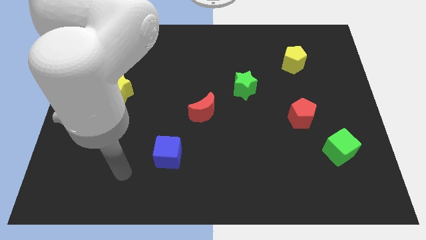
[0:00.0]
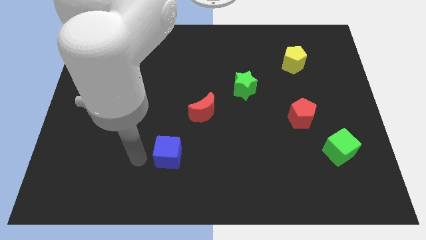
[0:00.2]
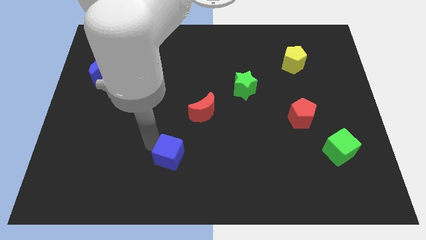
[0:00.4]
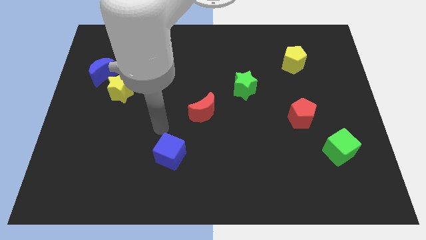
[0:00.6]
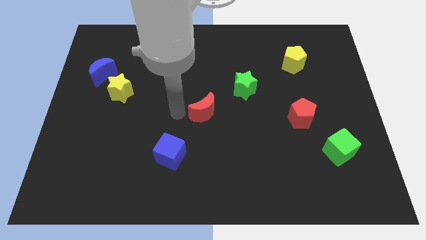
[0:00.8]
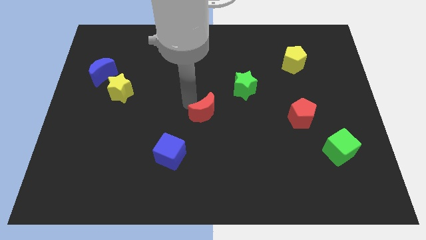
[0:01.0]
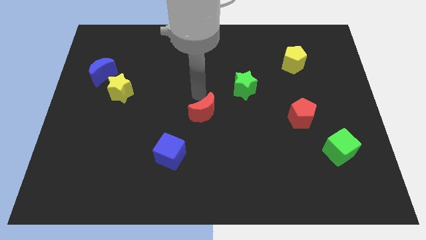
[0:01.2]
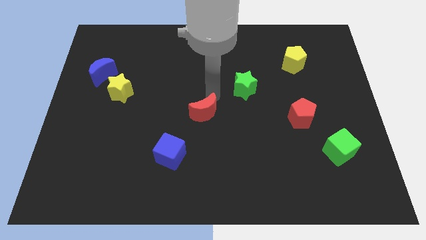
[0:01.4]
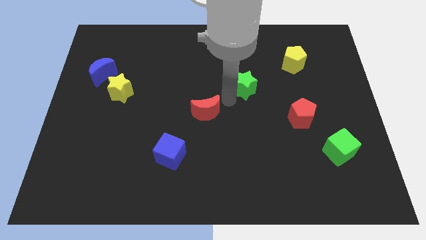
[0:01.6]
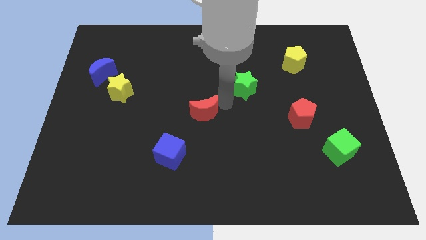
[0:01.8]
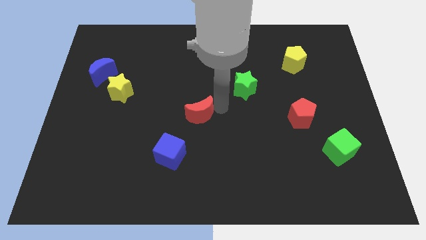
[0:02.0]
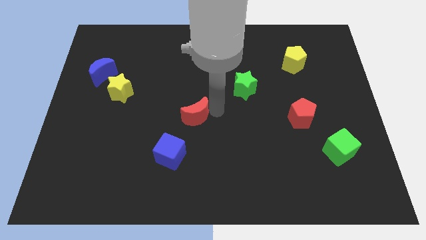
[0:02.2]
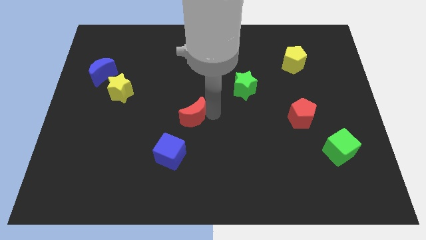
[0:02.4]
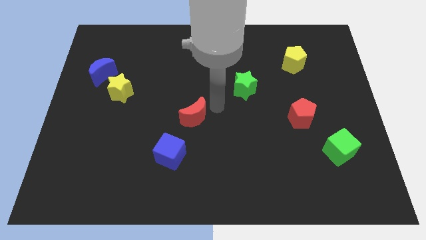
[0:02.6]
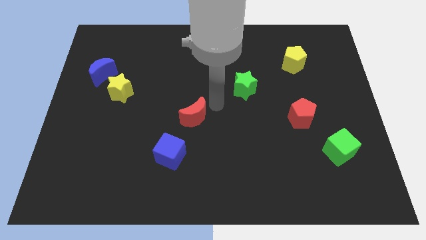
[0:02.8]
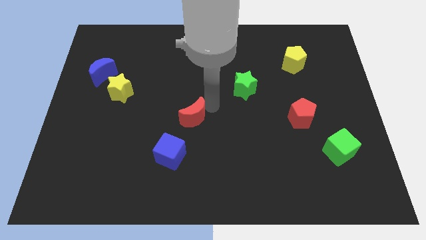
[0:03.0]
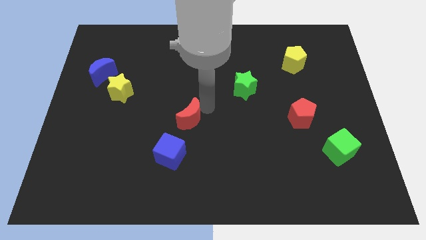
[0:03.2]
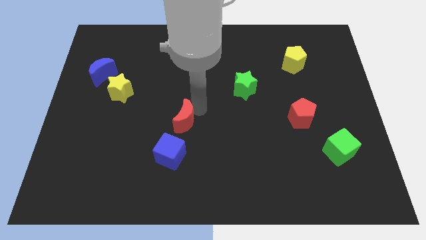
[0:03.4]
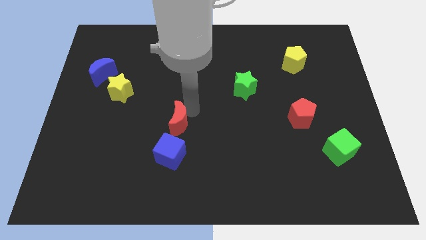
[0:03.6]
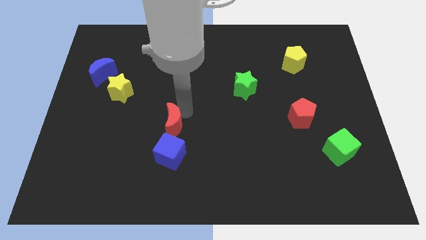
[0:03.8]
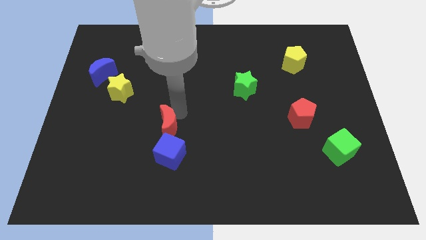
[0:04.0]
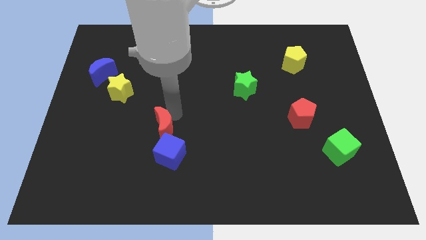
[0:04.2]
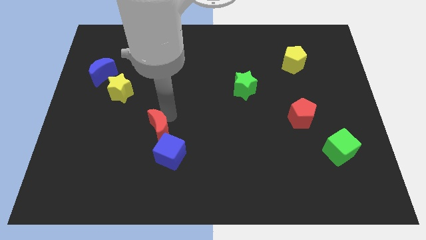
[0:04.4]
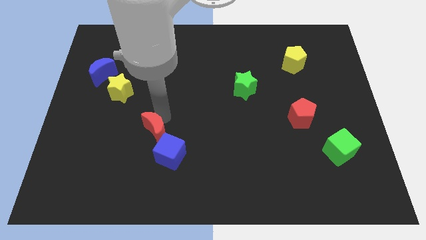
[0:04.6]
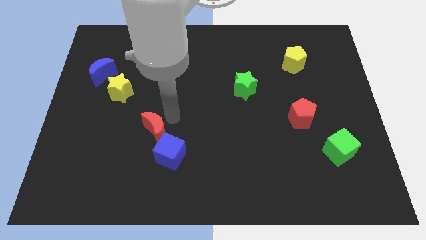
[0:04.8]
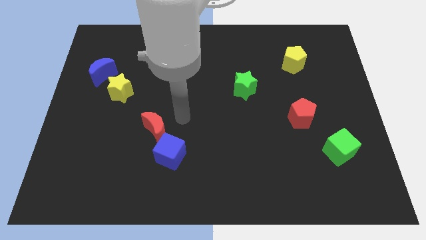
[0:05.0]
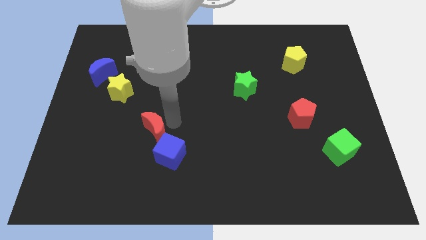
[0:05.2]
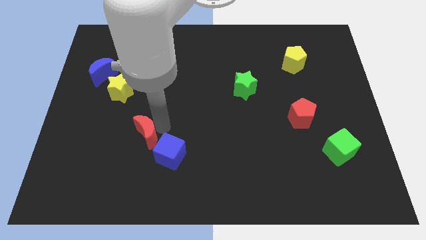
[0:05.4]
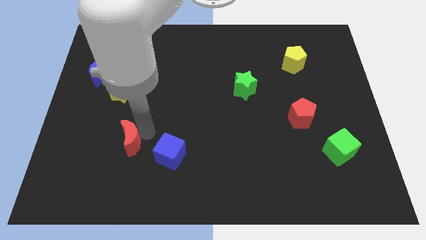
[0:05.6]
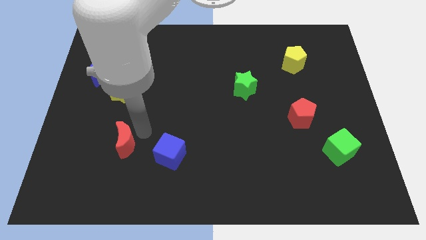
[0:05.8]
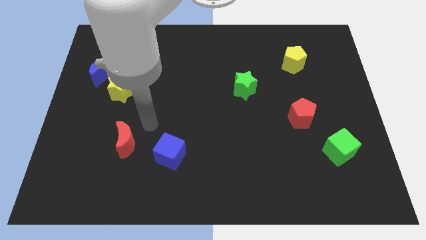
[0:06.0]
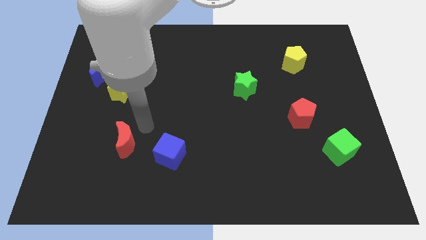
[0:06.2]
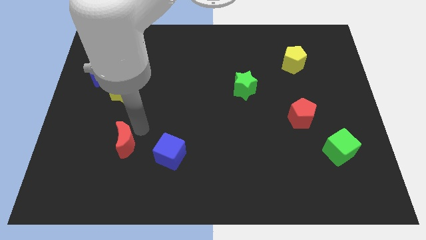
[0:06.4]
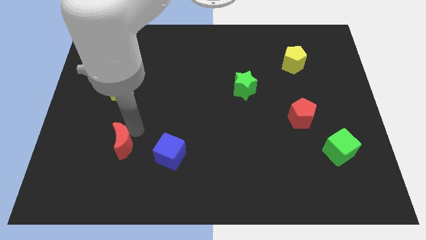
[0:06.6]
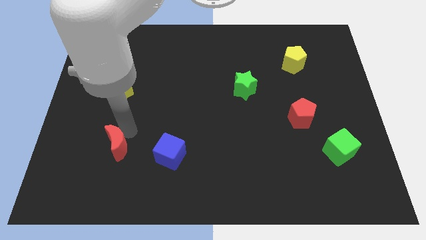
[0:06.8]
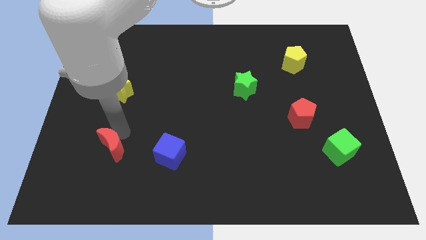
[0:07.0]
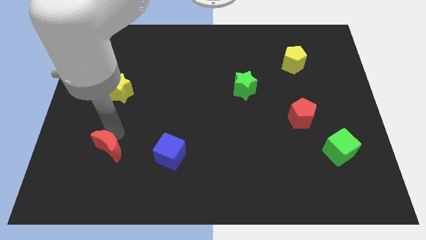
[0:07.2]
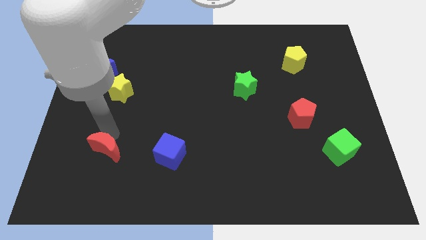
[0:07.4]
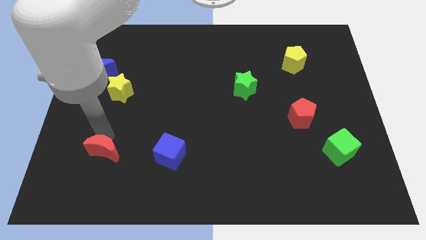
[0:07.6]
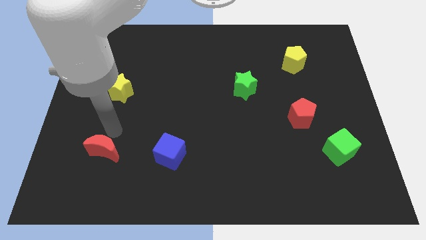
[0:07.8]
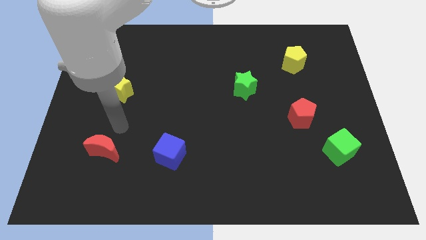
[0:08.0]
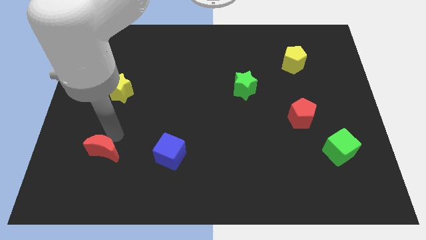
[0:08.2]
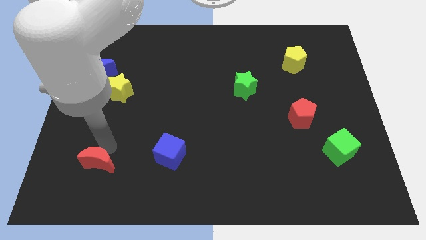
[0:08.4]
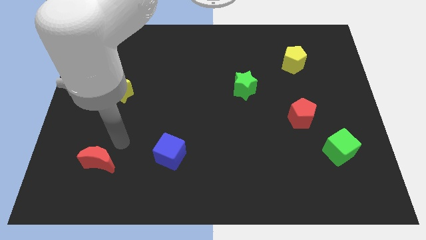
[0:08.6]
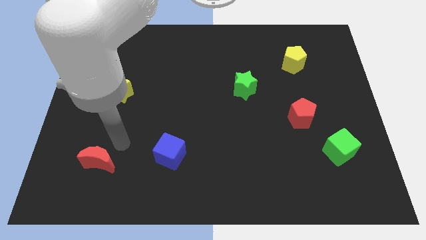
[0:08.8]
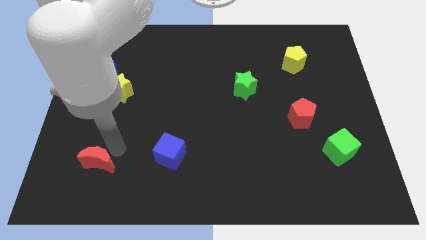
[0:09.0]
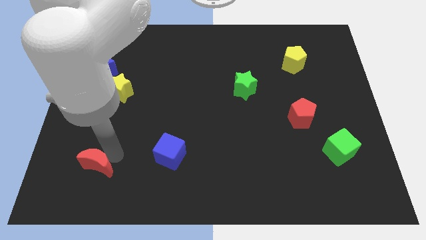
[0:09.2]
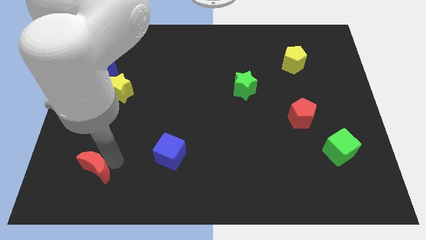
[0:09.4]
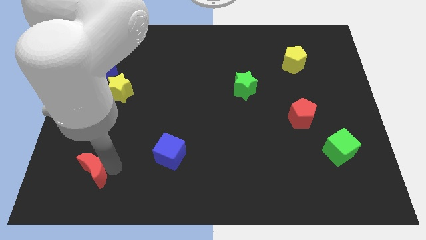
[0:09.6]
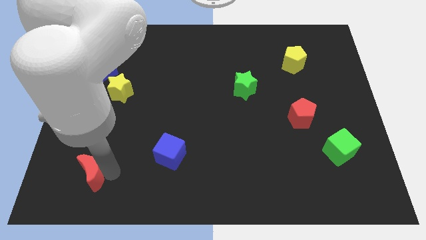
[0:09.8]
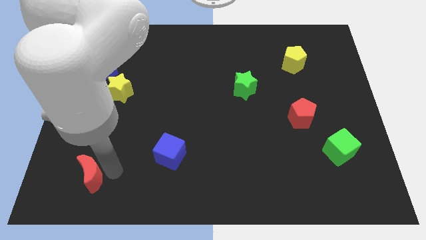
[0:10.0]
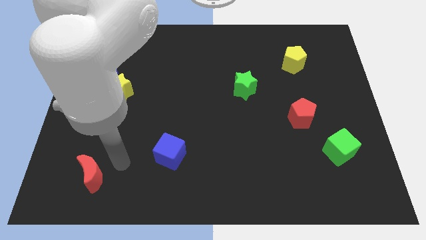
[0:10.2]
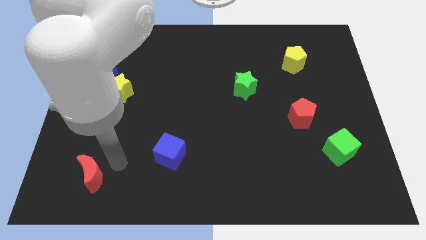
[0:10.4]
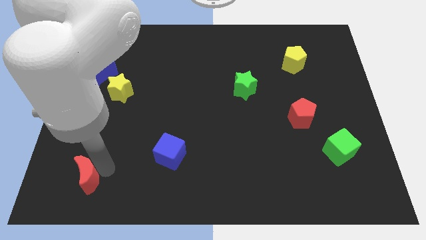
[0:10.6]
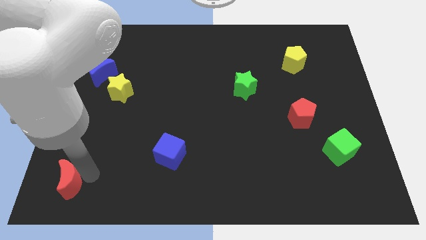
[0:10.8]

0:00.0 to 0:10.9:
put the red moon to the bottom left of the board
